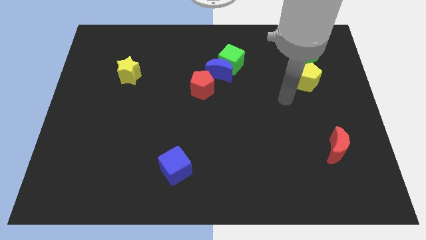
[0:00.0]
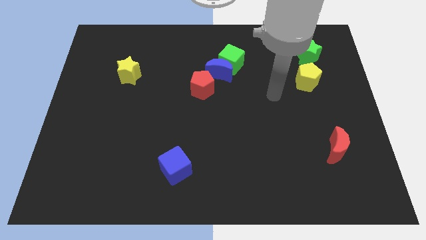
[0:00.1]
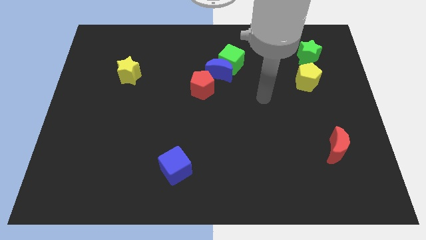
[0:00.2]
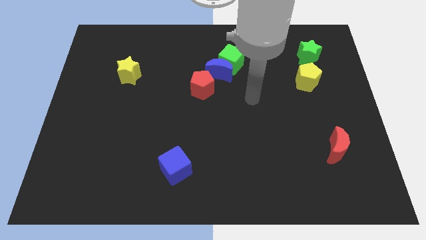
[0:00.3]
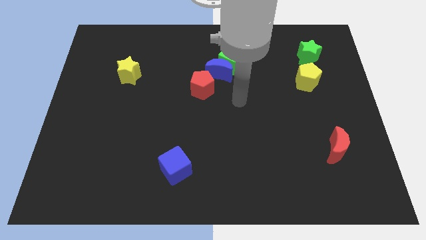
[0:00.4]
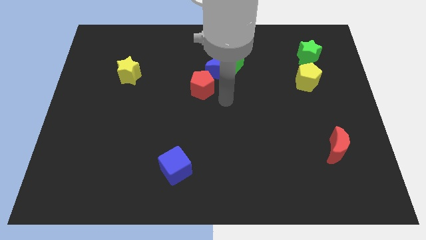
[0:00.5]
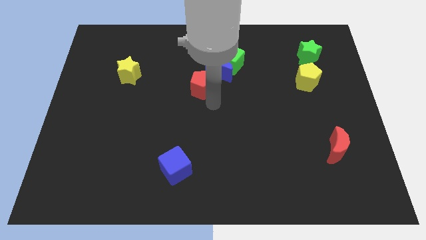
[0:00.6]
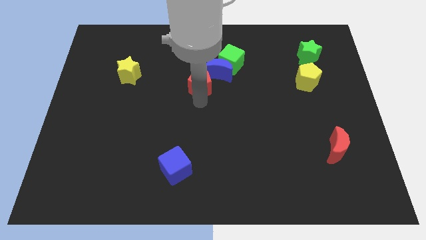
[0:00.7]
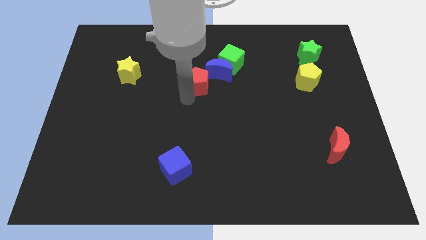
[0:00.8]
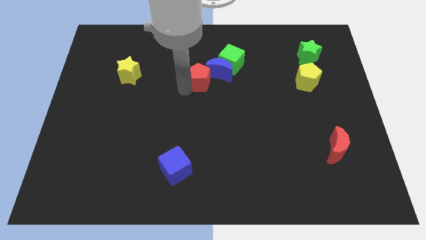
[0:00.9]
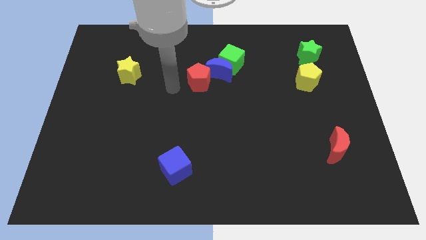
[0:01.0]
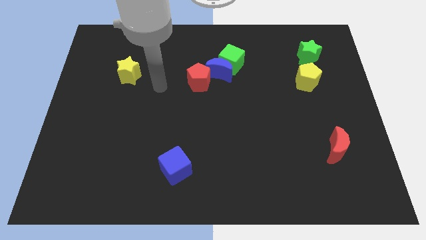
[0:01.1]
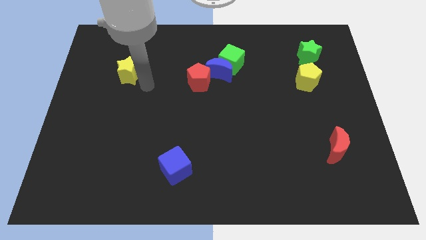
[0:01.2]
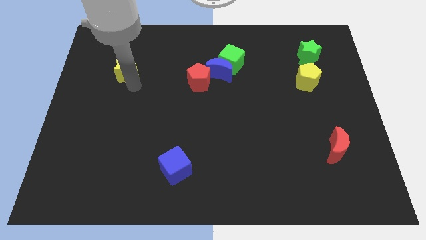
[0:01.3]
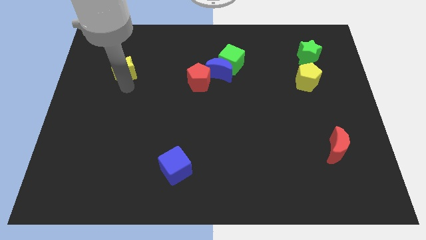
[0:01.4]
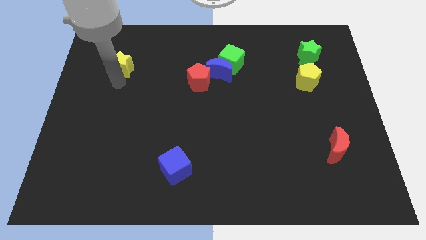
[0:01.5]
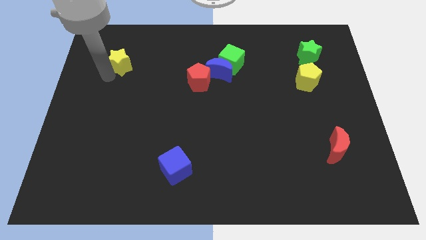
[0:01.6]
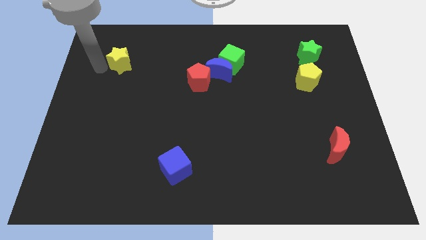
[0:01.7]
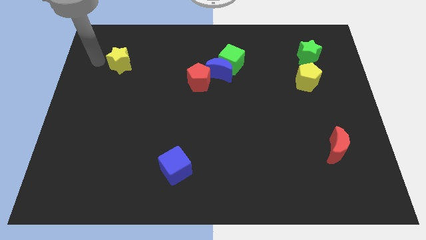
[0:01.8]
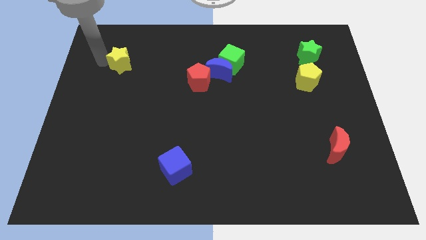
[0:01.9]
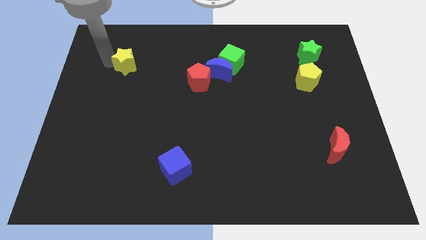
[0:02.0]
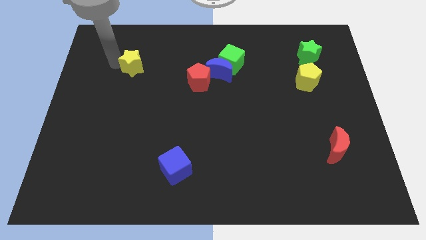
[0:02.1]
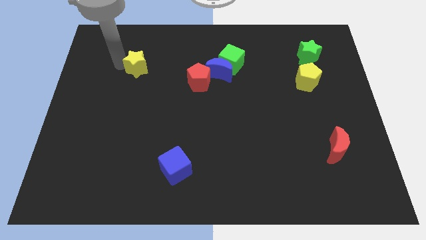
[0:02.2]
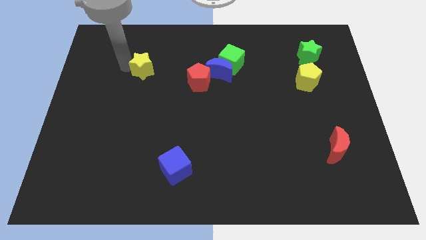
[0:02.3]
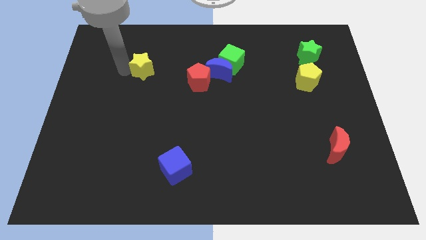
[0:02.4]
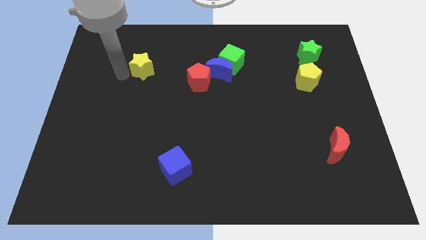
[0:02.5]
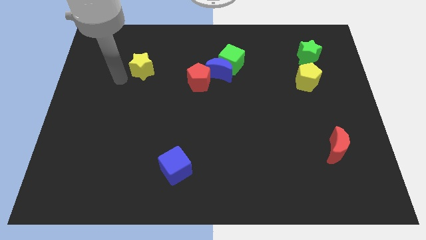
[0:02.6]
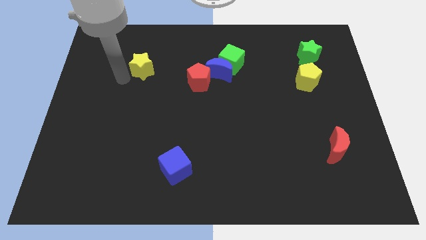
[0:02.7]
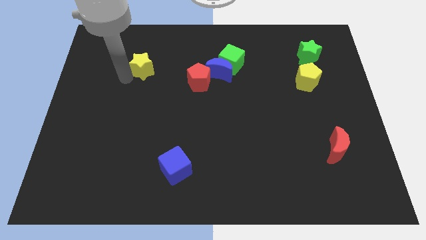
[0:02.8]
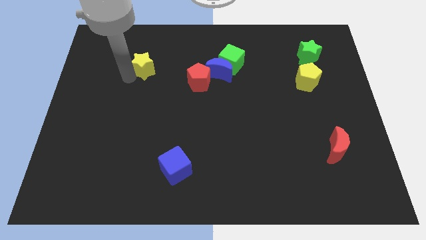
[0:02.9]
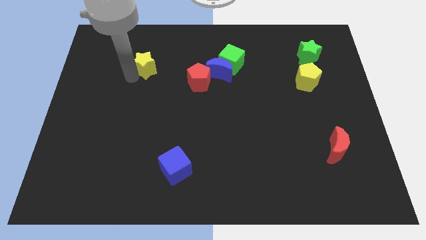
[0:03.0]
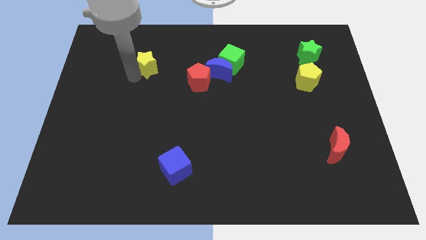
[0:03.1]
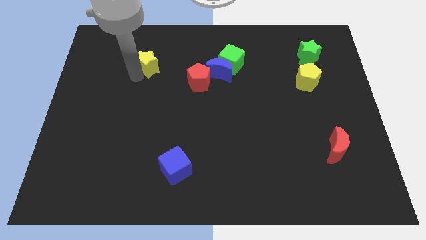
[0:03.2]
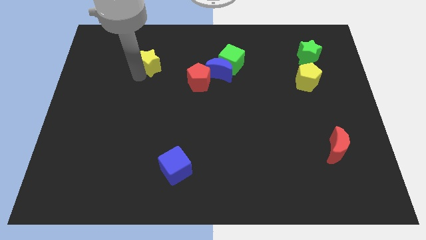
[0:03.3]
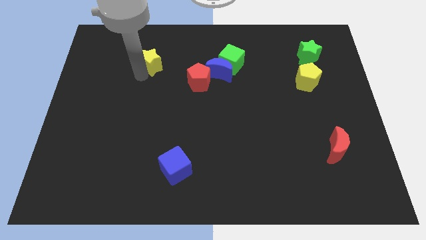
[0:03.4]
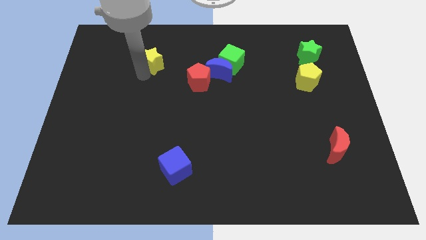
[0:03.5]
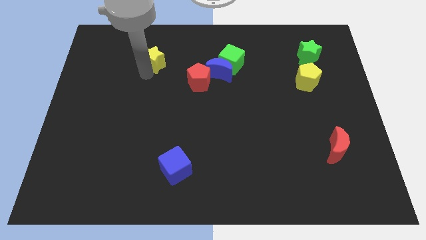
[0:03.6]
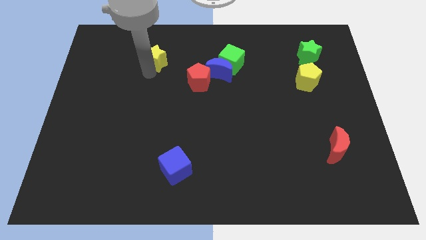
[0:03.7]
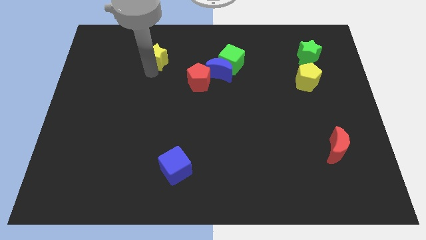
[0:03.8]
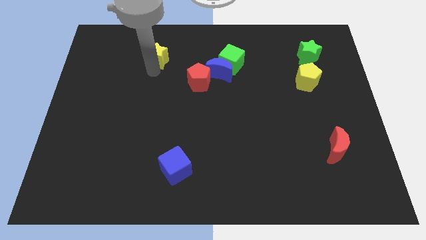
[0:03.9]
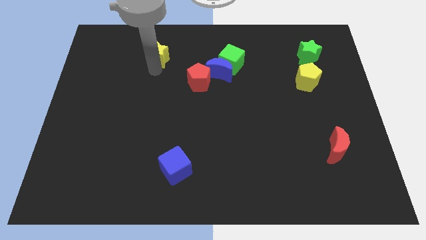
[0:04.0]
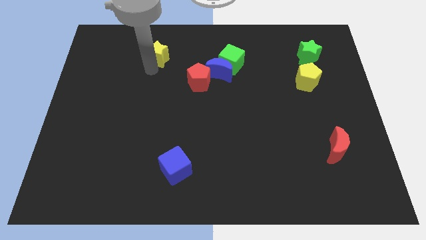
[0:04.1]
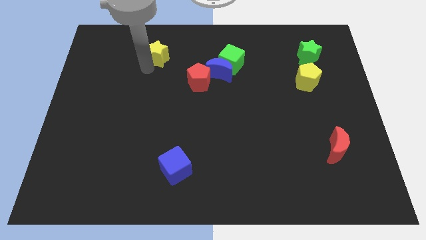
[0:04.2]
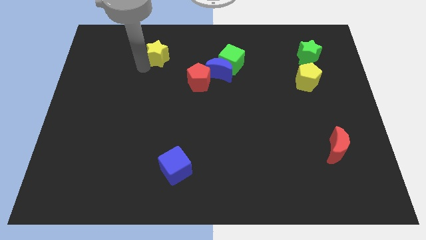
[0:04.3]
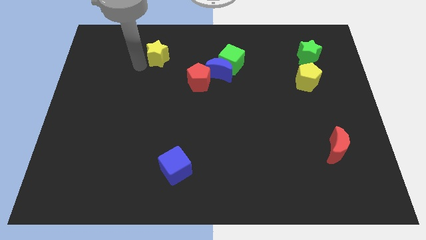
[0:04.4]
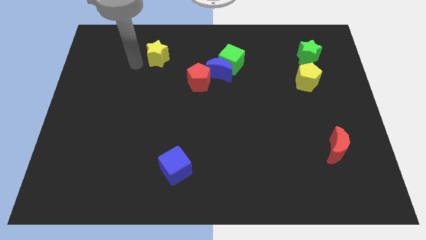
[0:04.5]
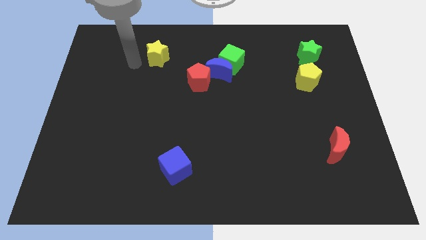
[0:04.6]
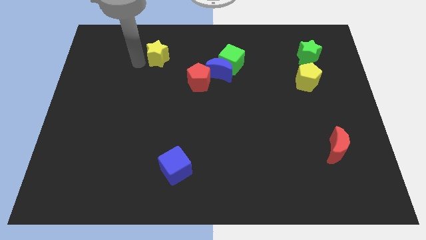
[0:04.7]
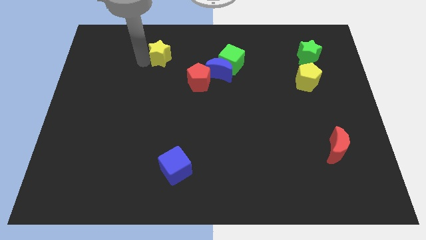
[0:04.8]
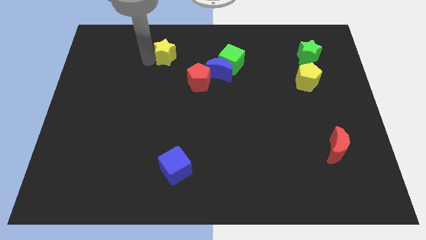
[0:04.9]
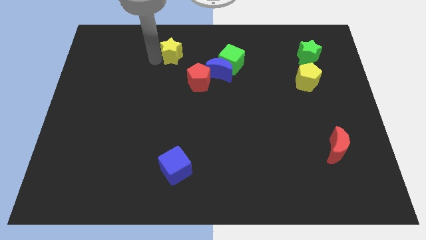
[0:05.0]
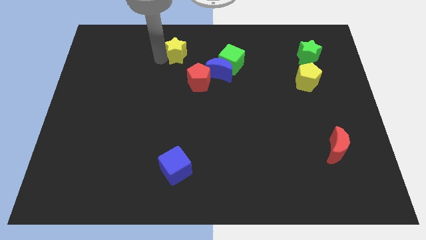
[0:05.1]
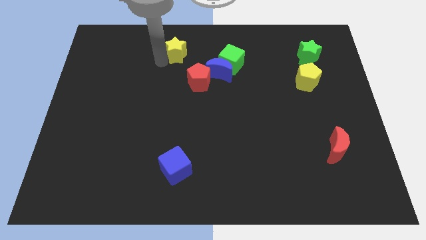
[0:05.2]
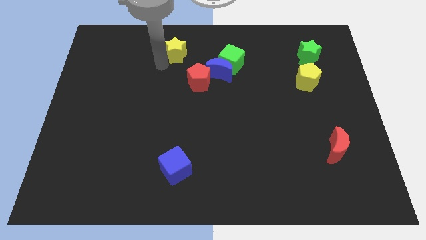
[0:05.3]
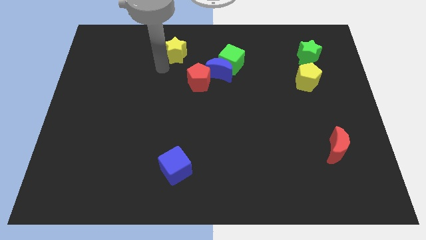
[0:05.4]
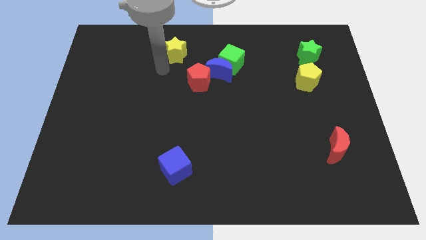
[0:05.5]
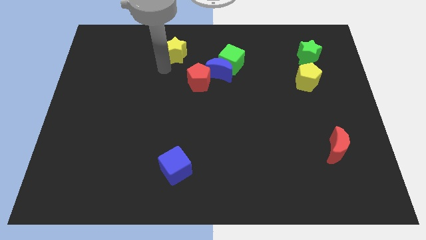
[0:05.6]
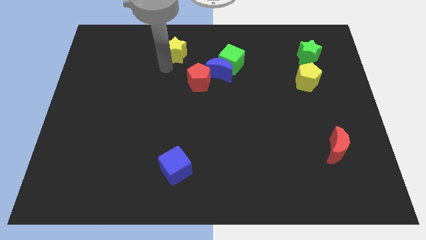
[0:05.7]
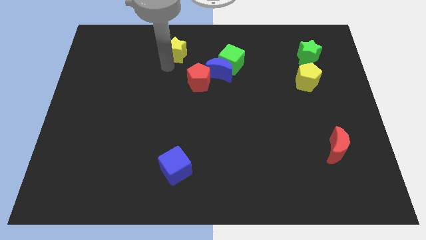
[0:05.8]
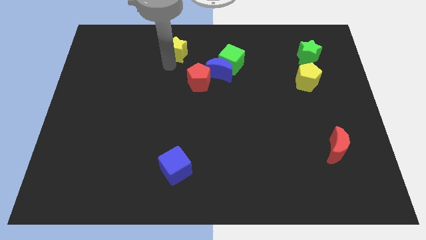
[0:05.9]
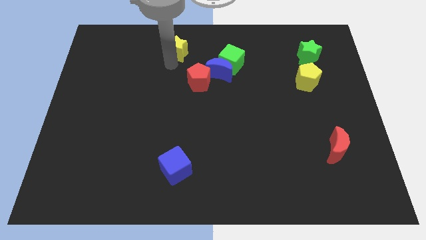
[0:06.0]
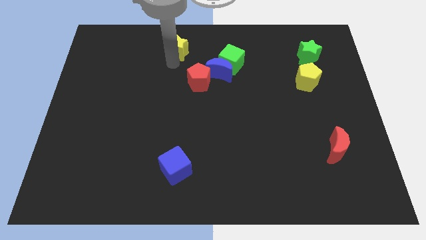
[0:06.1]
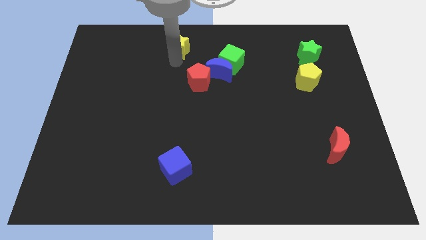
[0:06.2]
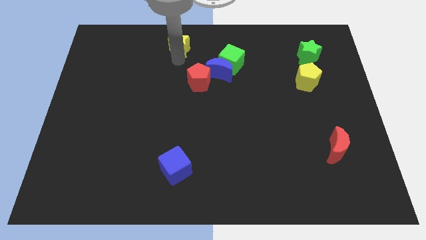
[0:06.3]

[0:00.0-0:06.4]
slide the yellow star to the top side

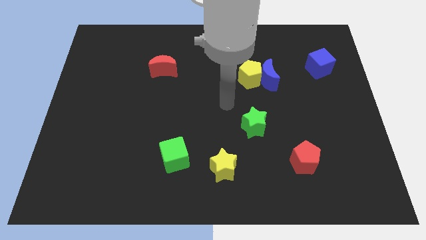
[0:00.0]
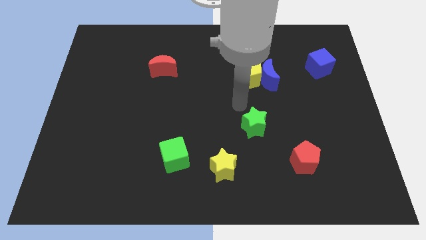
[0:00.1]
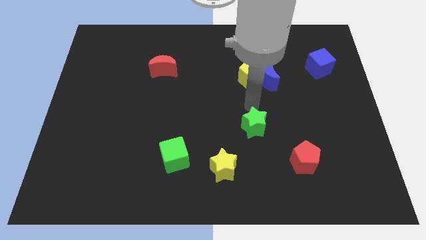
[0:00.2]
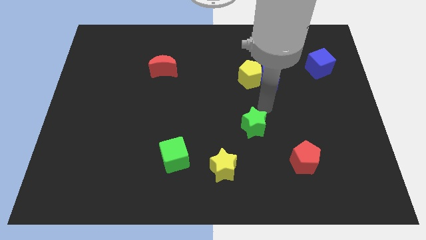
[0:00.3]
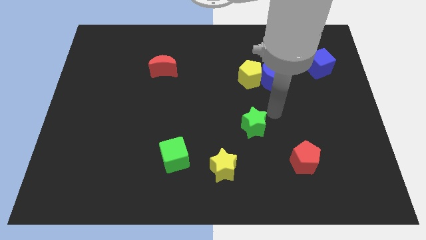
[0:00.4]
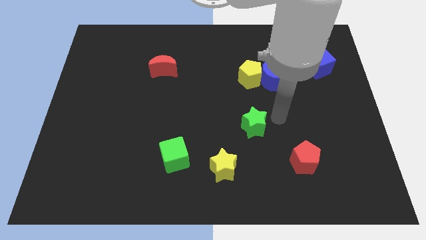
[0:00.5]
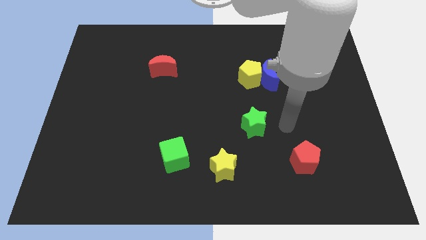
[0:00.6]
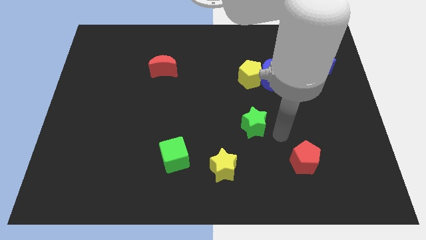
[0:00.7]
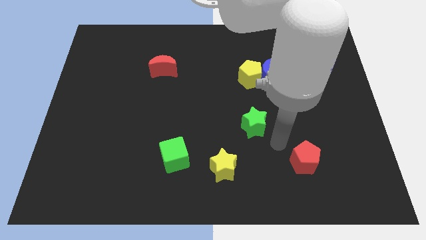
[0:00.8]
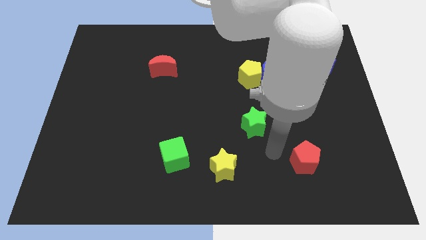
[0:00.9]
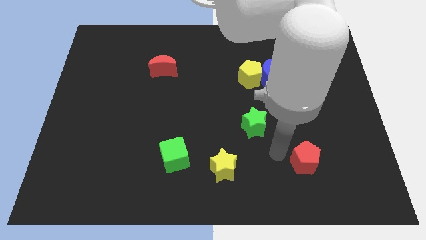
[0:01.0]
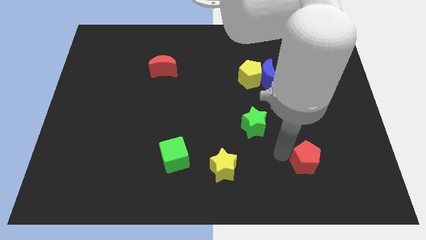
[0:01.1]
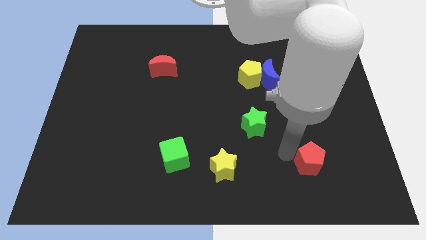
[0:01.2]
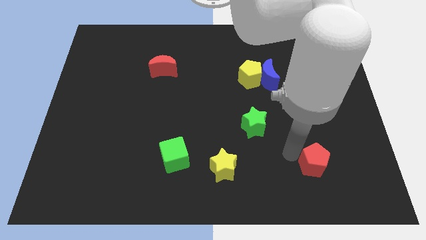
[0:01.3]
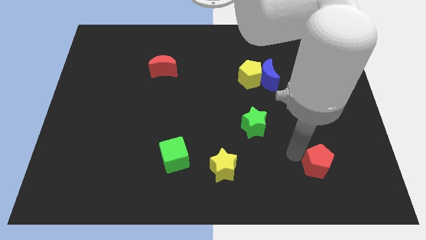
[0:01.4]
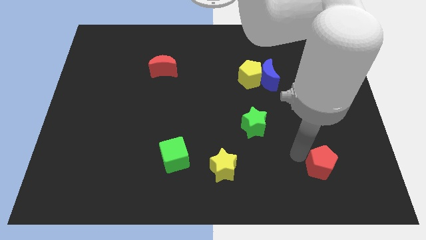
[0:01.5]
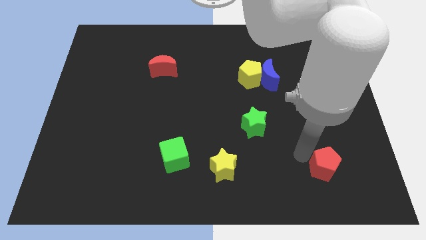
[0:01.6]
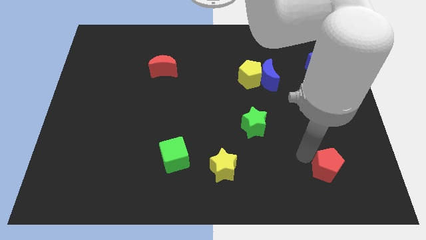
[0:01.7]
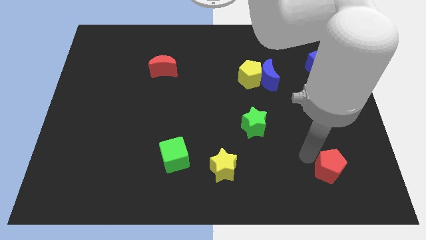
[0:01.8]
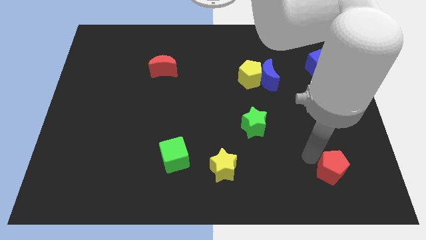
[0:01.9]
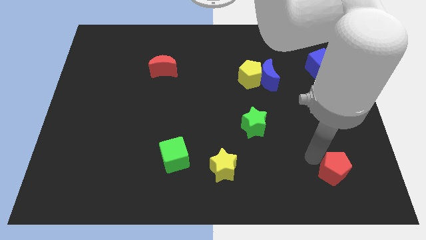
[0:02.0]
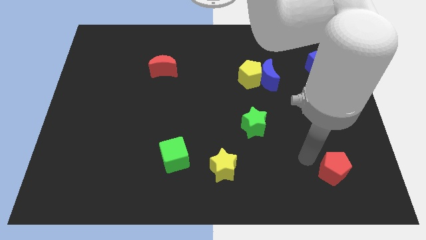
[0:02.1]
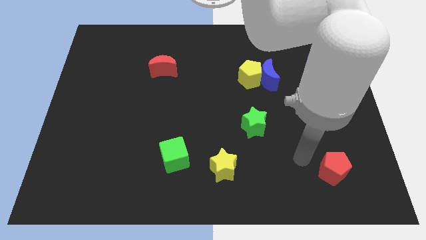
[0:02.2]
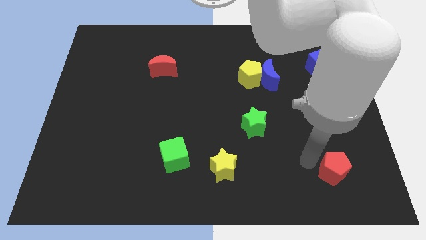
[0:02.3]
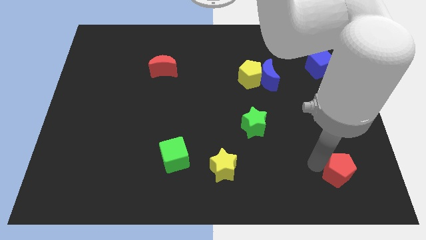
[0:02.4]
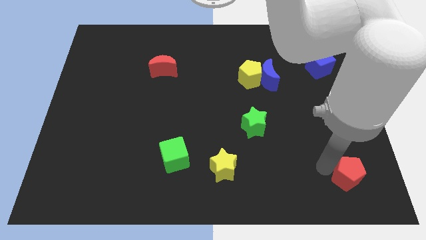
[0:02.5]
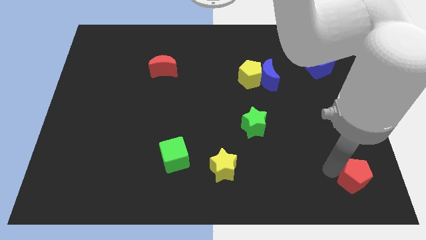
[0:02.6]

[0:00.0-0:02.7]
move the red pentagon to the bottom right corner
